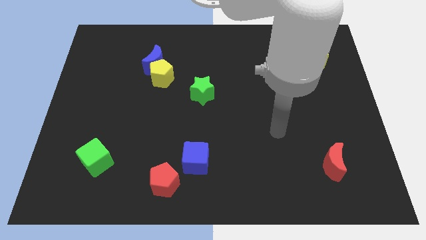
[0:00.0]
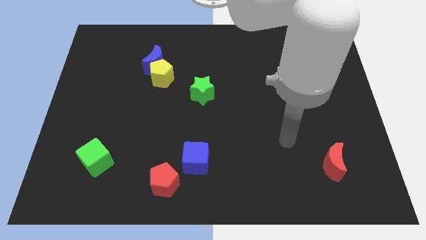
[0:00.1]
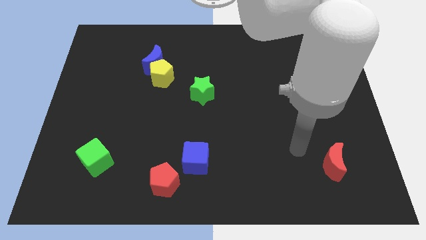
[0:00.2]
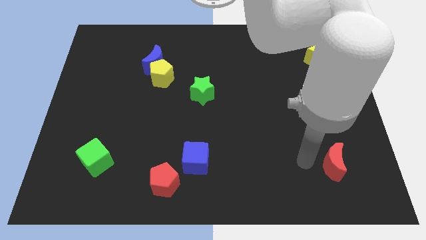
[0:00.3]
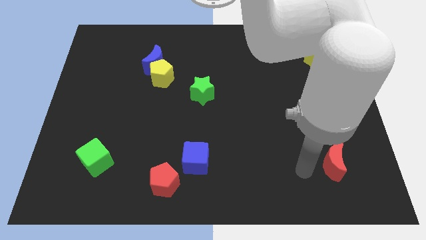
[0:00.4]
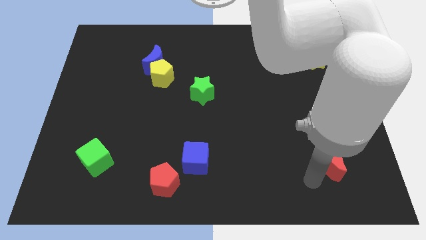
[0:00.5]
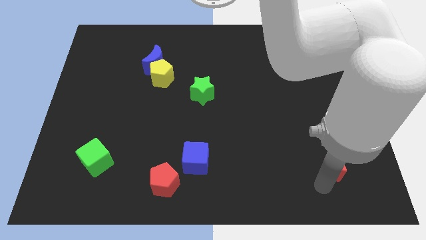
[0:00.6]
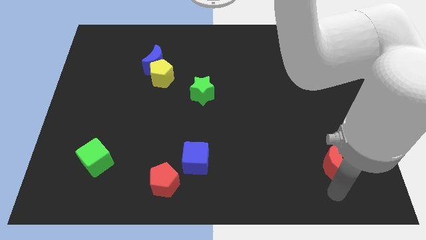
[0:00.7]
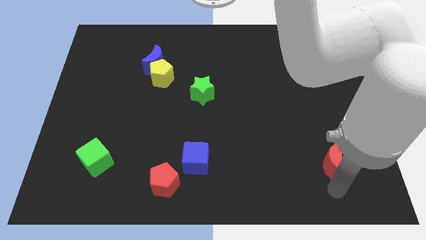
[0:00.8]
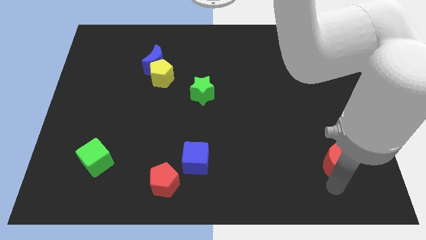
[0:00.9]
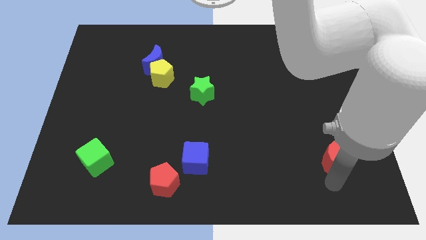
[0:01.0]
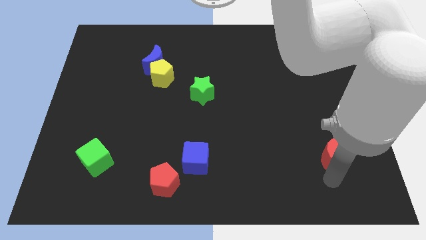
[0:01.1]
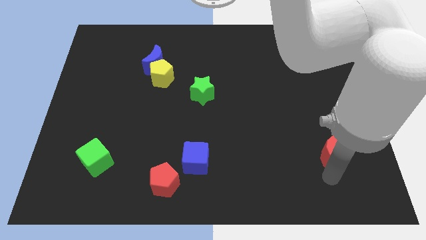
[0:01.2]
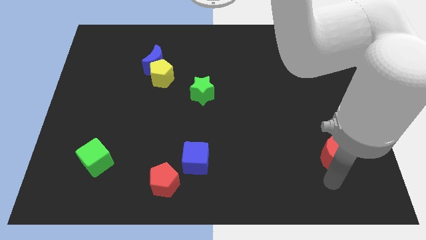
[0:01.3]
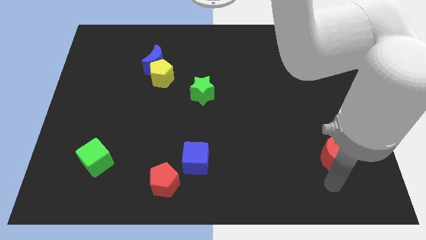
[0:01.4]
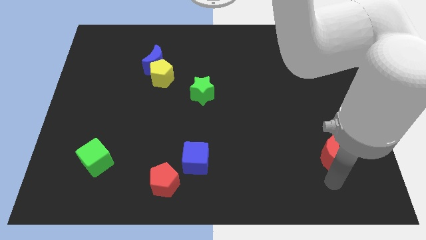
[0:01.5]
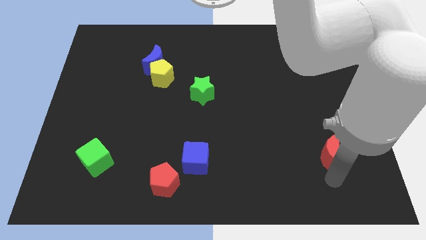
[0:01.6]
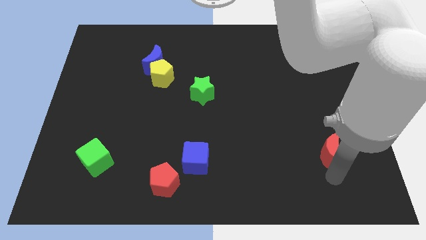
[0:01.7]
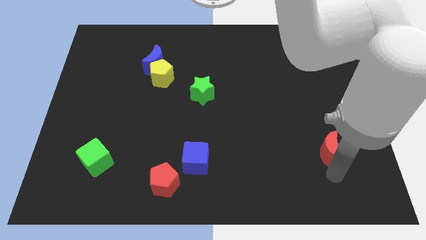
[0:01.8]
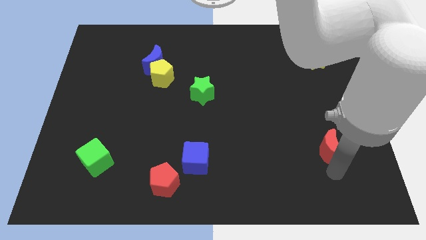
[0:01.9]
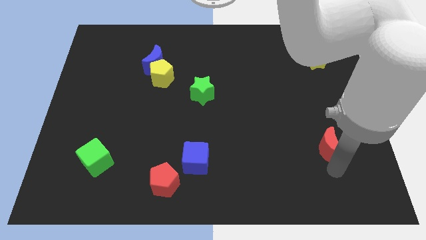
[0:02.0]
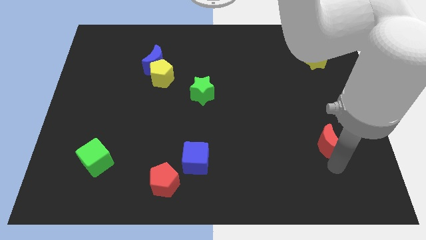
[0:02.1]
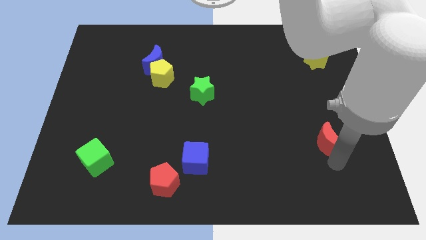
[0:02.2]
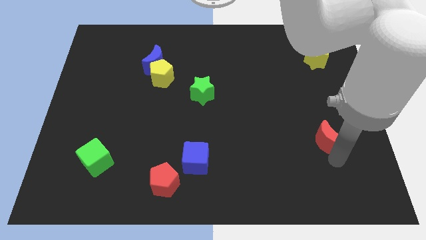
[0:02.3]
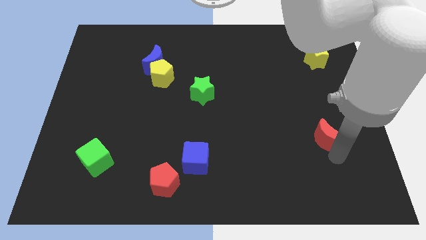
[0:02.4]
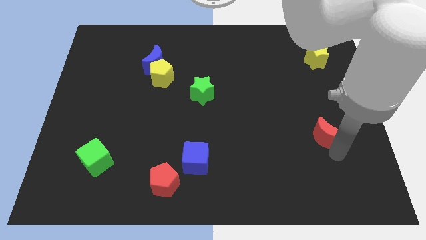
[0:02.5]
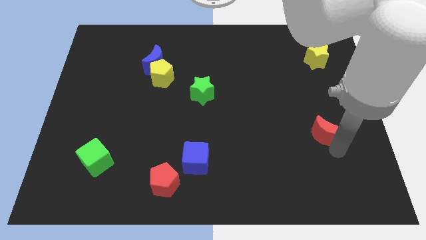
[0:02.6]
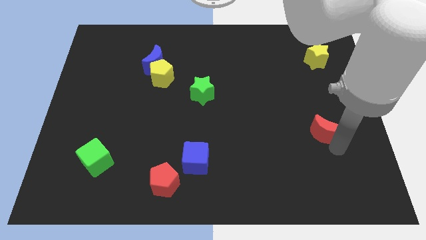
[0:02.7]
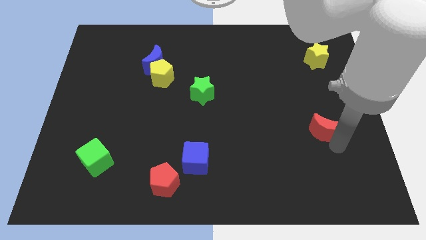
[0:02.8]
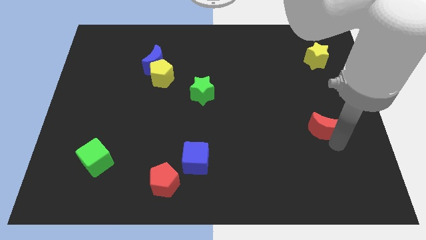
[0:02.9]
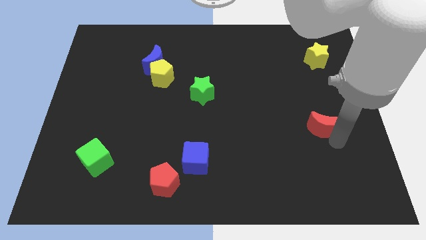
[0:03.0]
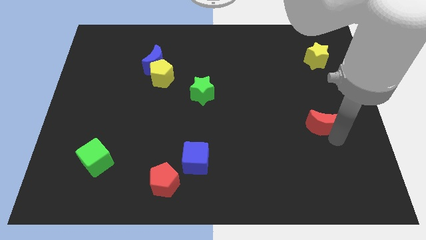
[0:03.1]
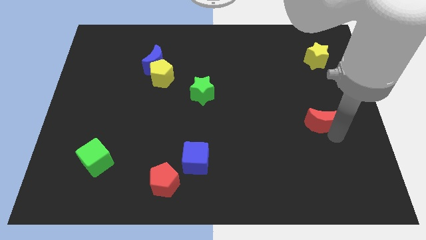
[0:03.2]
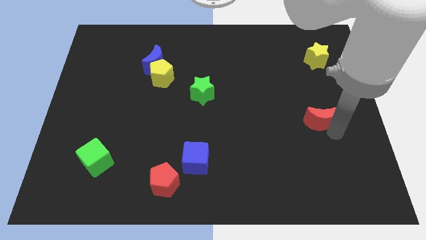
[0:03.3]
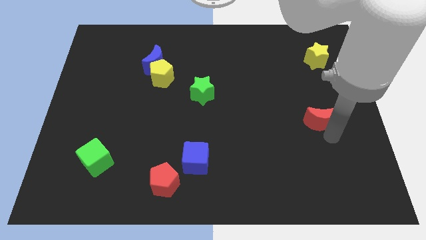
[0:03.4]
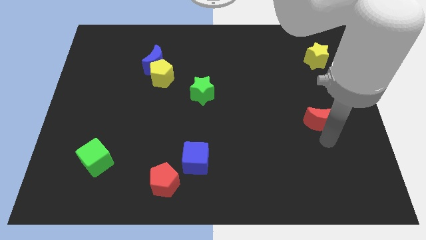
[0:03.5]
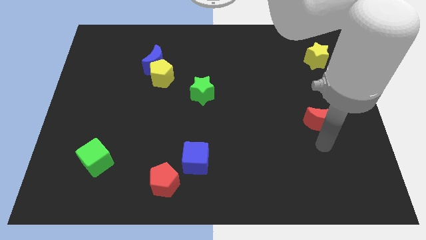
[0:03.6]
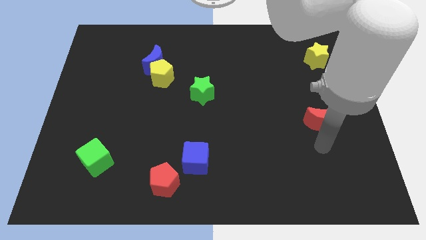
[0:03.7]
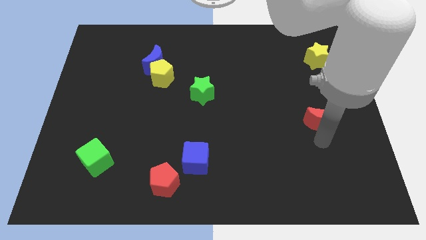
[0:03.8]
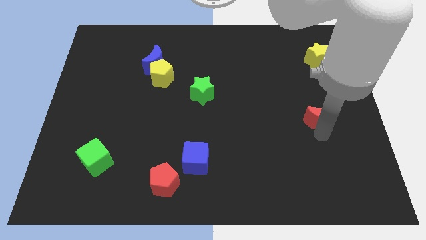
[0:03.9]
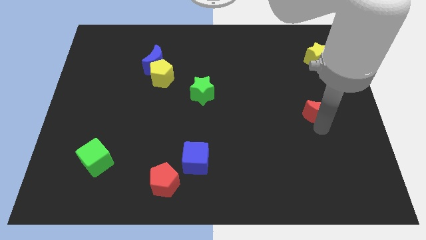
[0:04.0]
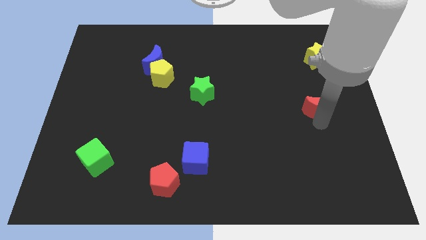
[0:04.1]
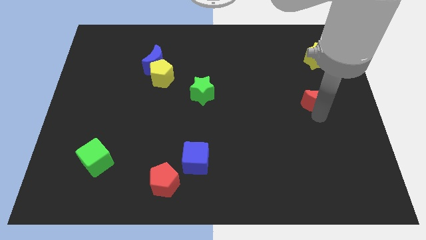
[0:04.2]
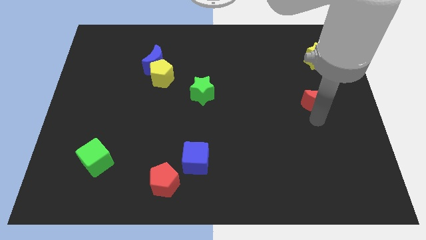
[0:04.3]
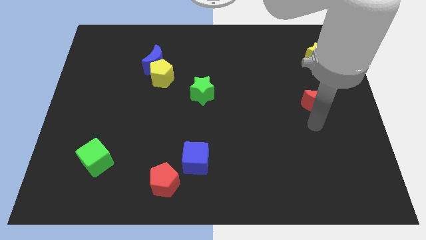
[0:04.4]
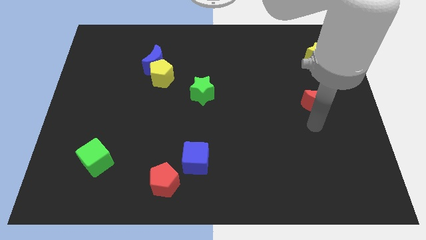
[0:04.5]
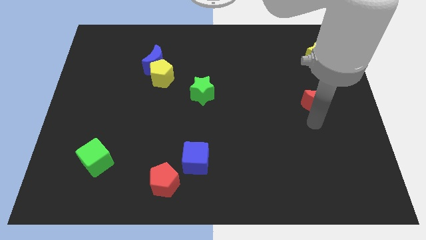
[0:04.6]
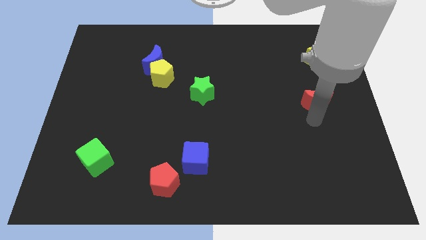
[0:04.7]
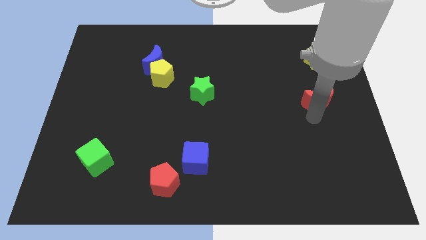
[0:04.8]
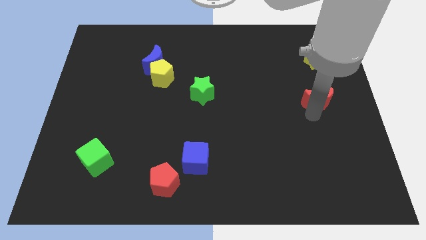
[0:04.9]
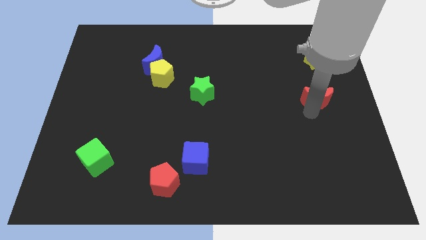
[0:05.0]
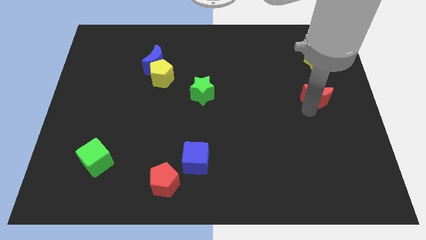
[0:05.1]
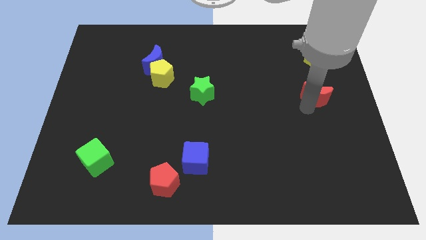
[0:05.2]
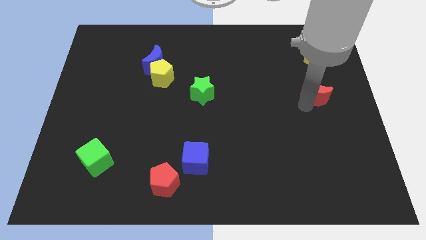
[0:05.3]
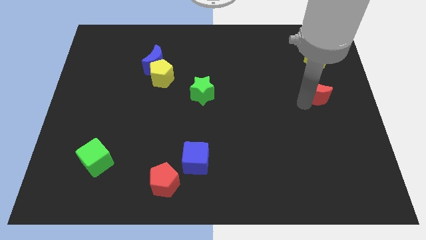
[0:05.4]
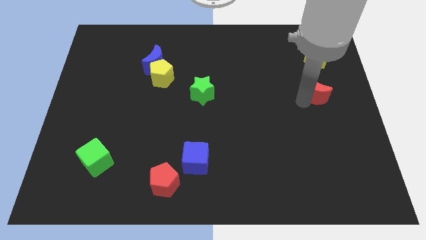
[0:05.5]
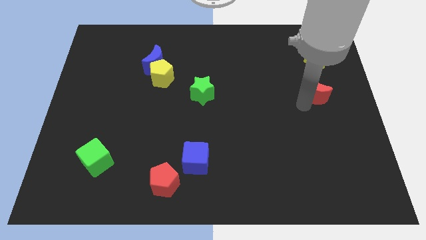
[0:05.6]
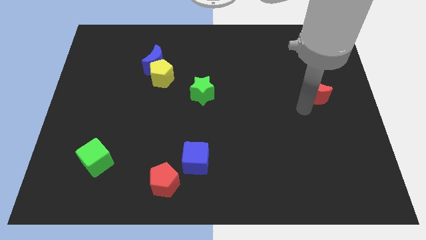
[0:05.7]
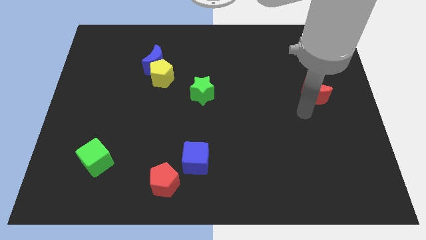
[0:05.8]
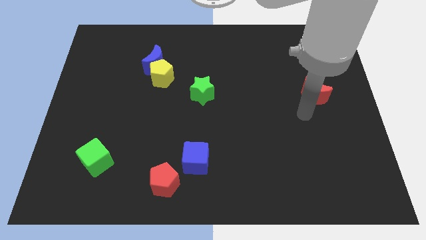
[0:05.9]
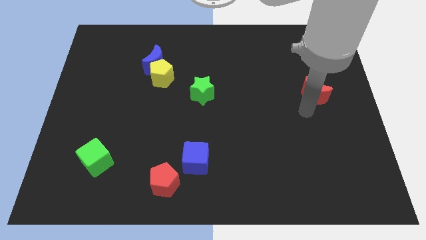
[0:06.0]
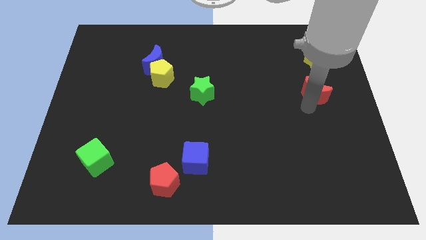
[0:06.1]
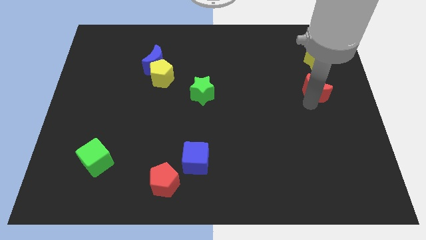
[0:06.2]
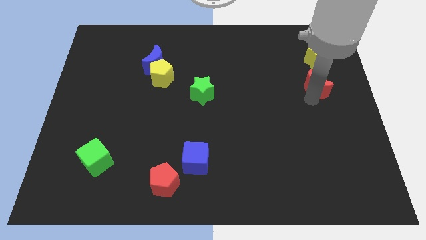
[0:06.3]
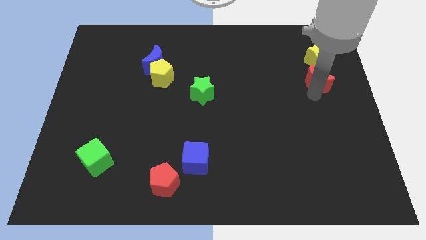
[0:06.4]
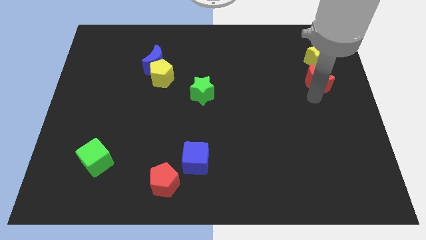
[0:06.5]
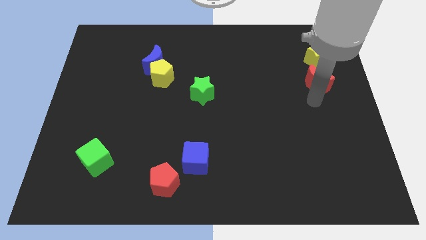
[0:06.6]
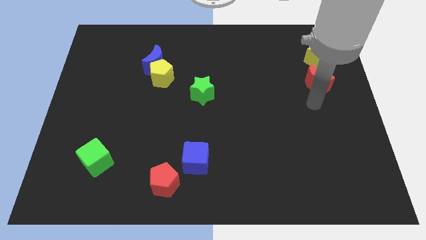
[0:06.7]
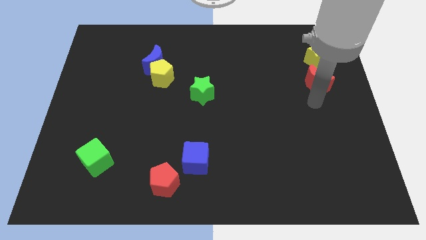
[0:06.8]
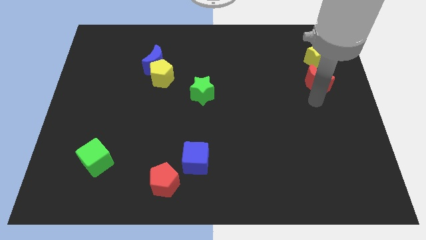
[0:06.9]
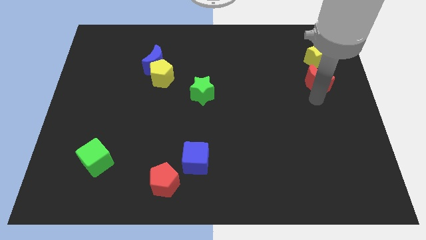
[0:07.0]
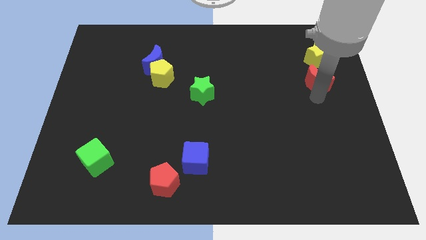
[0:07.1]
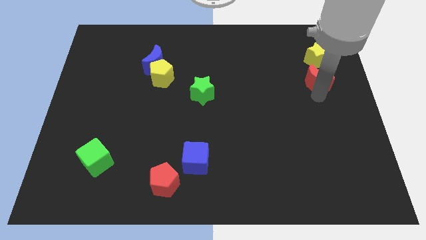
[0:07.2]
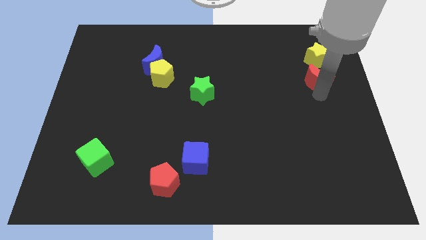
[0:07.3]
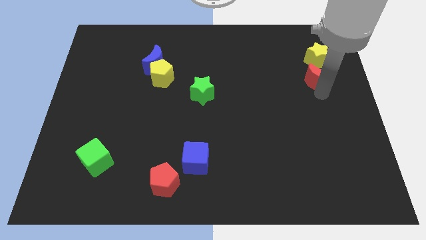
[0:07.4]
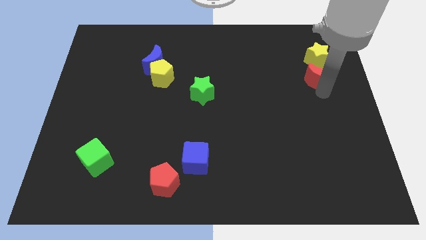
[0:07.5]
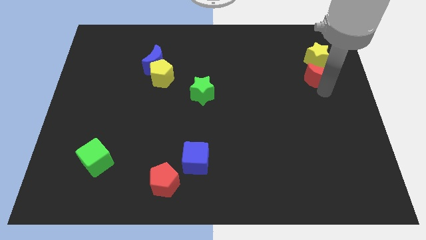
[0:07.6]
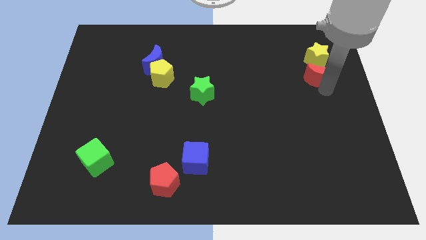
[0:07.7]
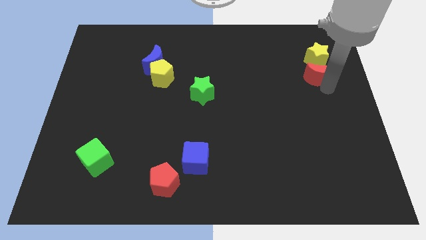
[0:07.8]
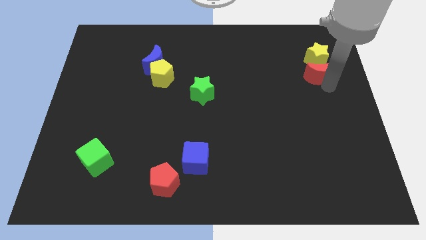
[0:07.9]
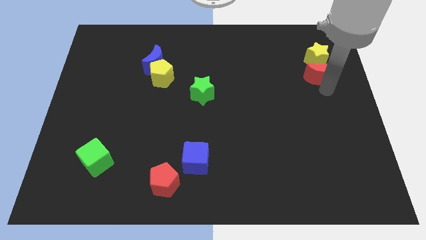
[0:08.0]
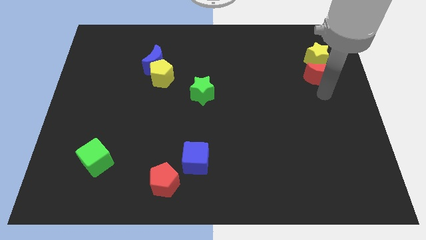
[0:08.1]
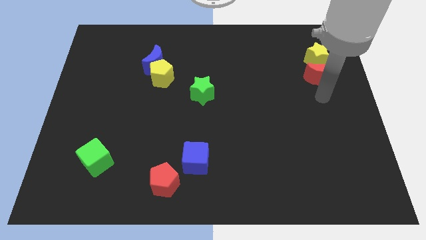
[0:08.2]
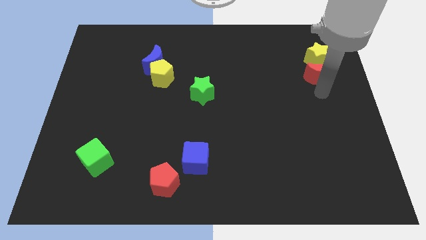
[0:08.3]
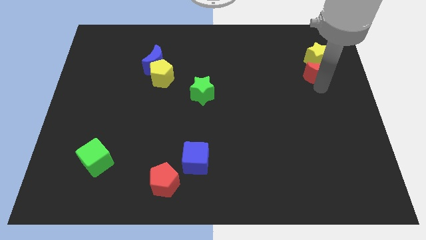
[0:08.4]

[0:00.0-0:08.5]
slide the red moon towards the yellow star
